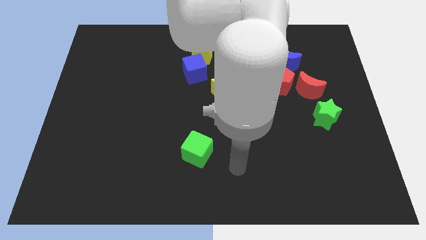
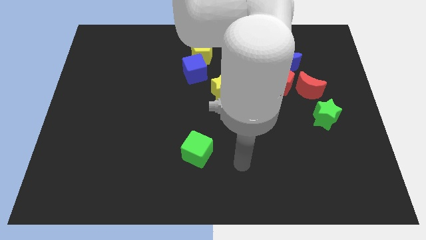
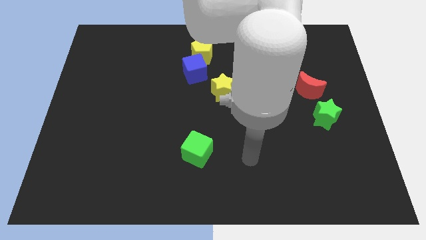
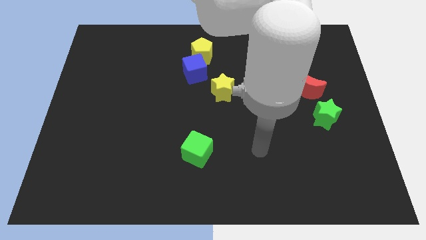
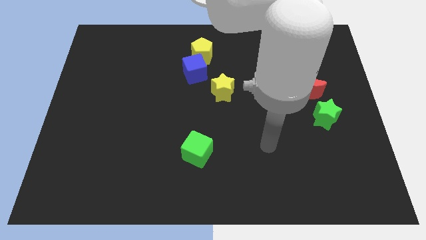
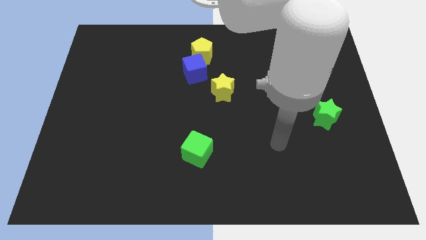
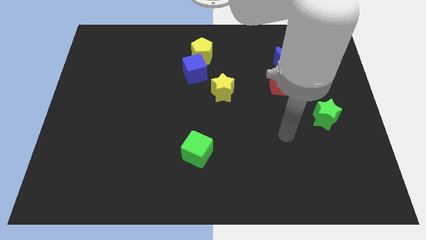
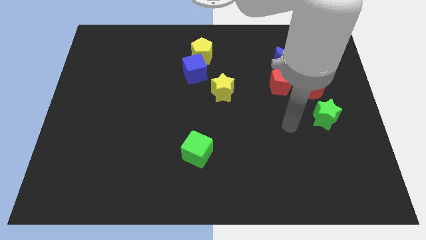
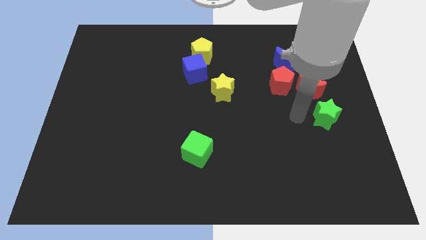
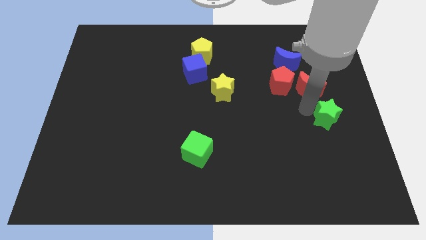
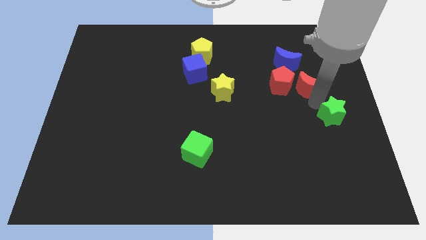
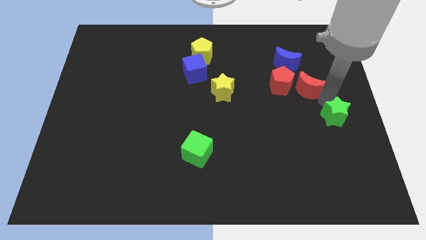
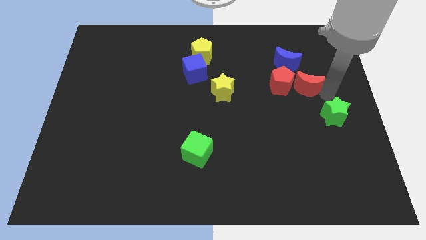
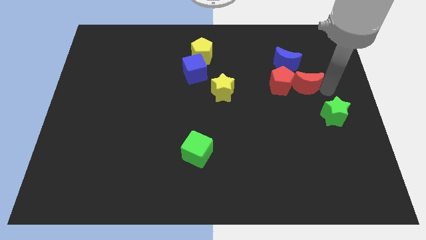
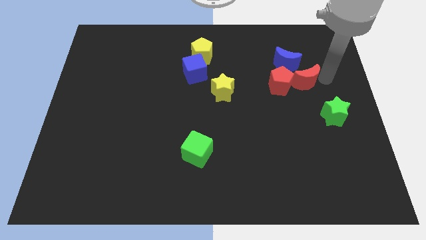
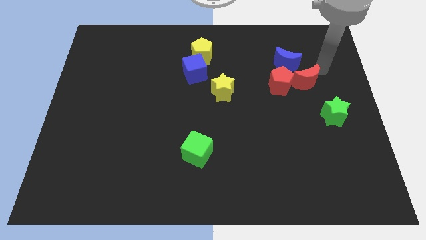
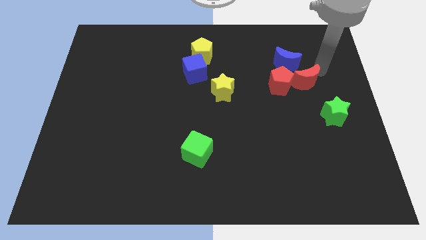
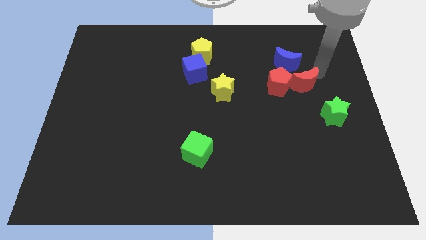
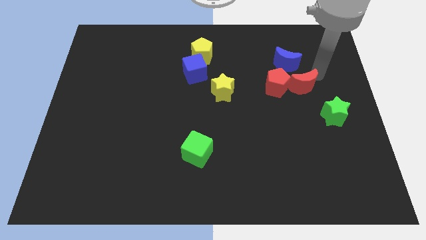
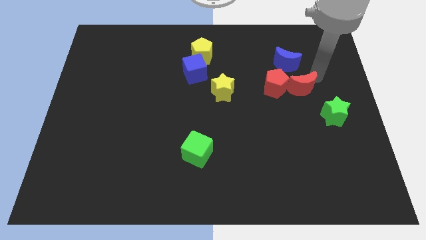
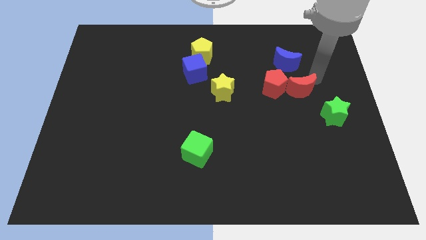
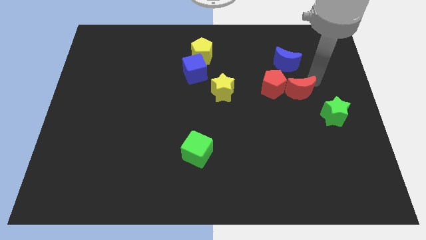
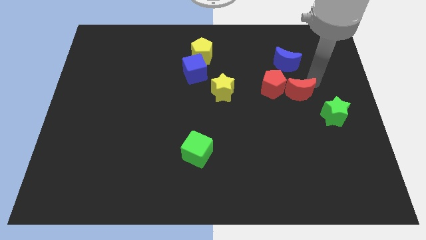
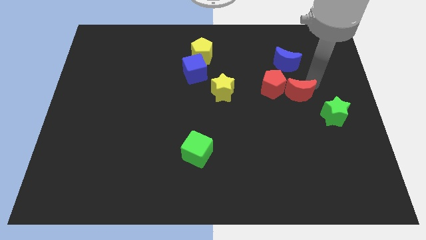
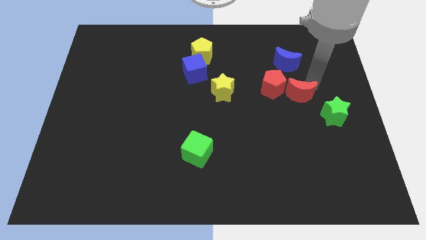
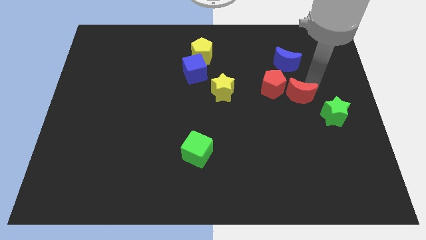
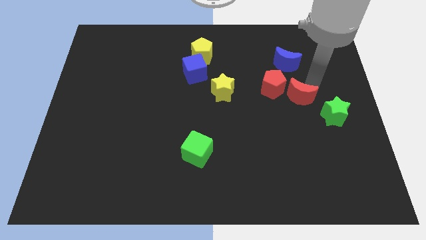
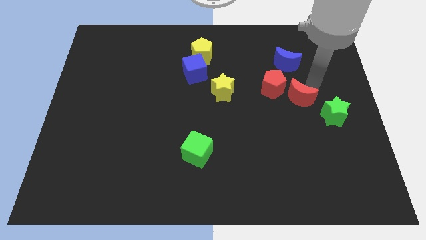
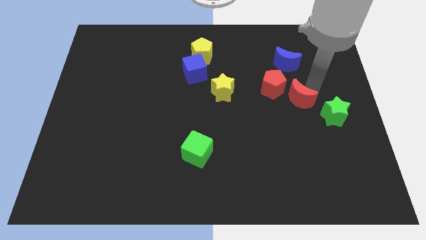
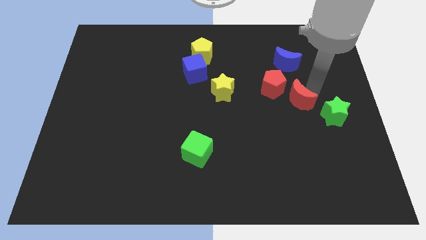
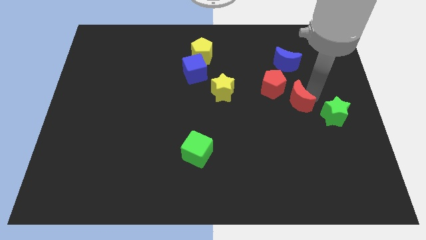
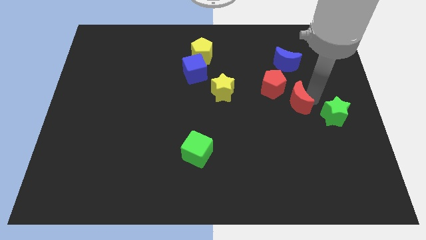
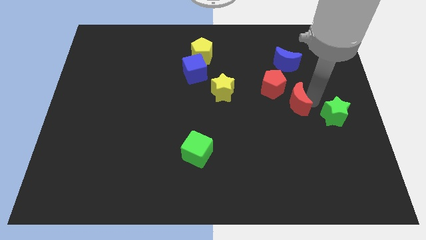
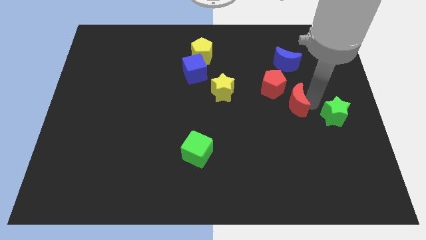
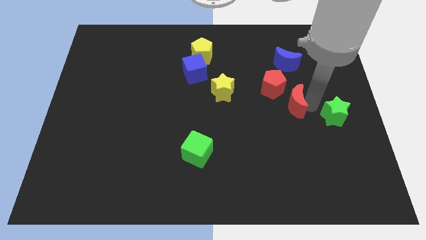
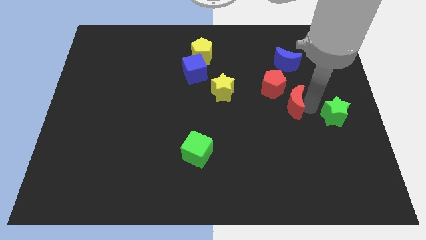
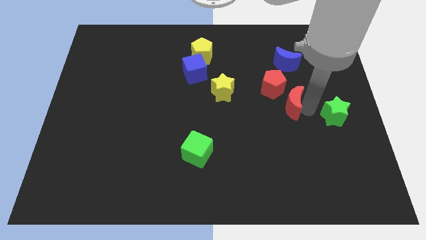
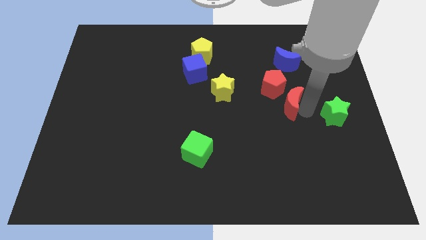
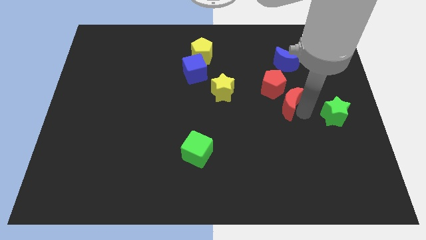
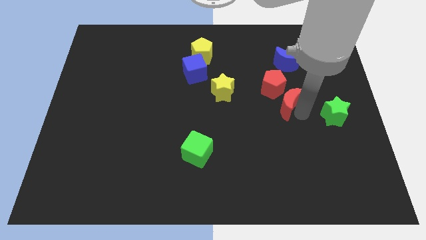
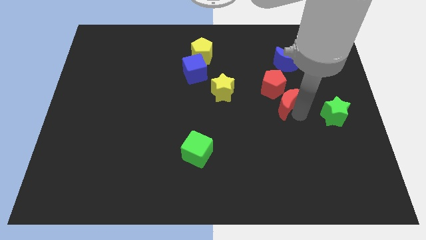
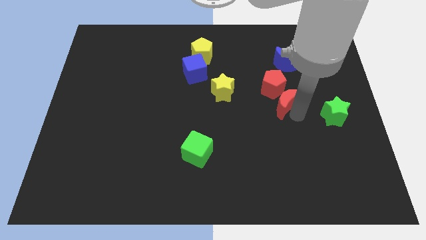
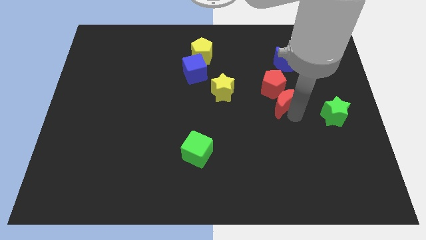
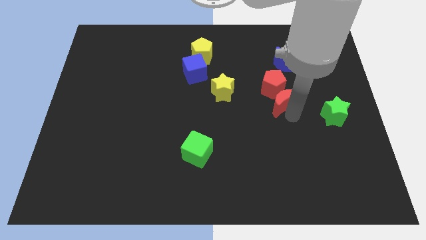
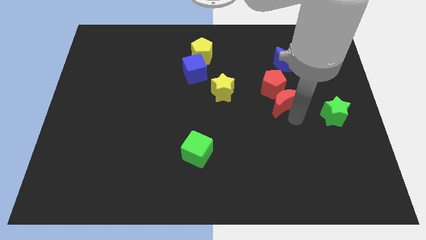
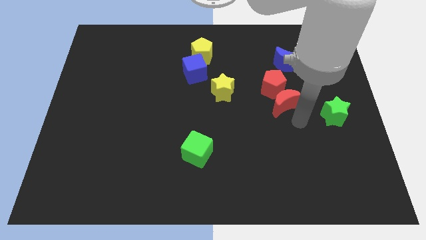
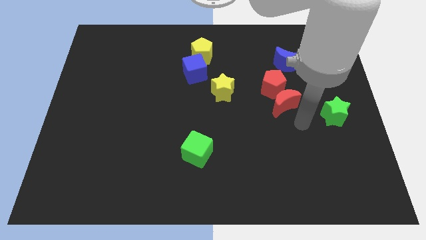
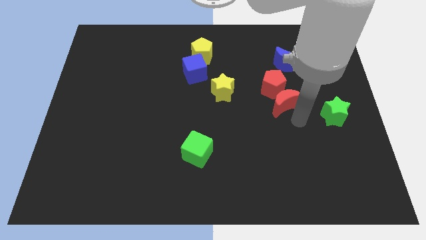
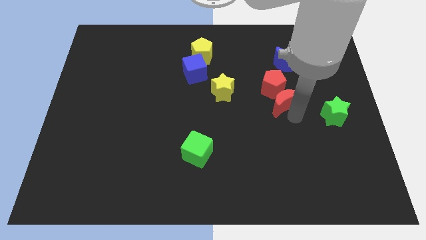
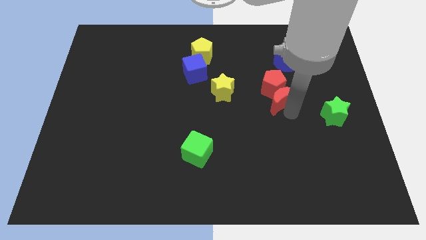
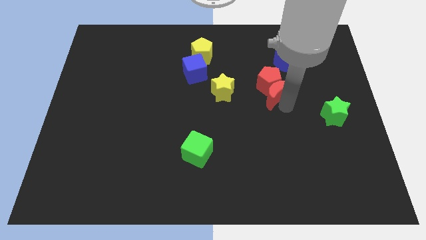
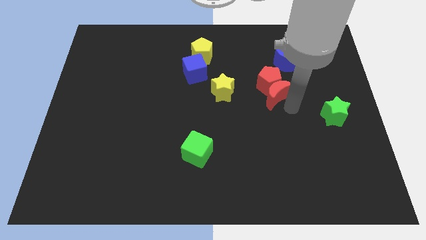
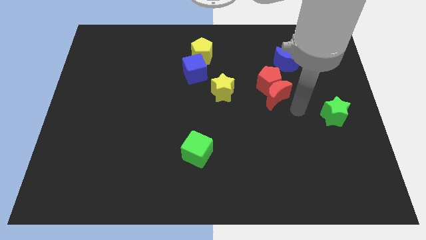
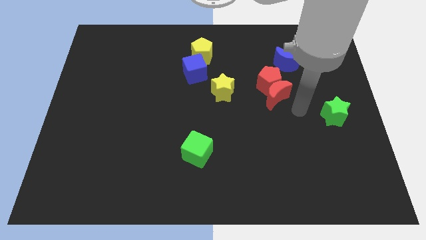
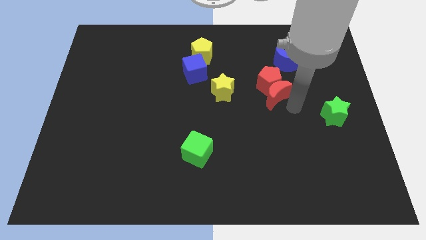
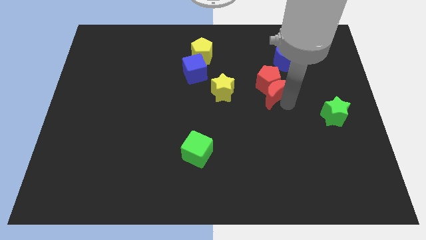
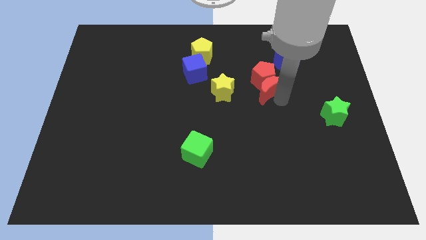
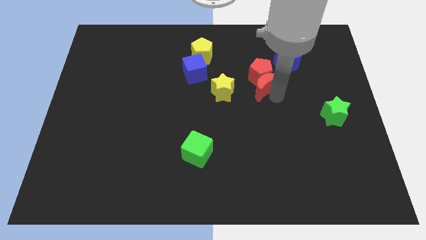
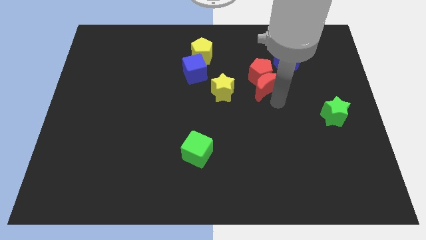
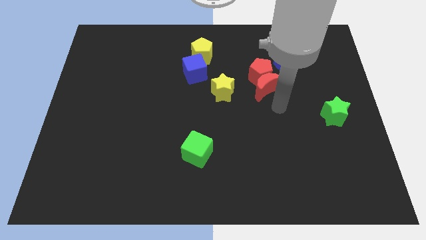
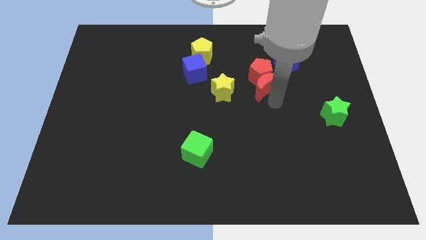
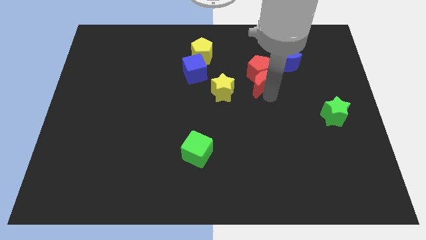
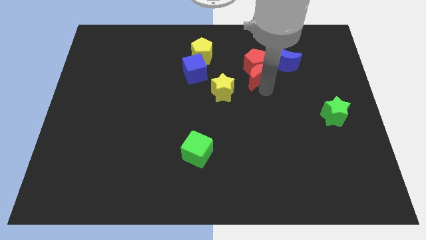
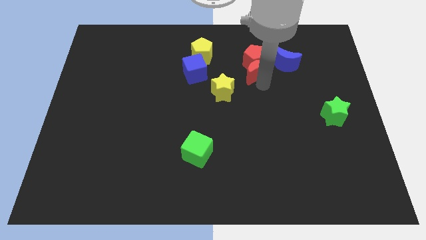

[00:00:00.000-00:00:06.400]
slide the red moon to the left of the blue moon
